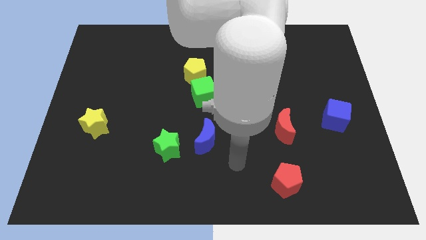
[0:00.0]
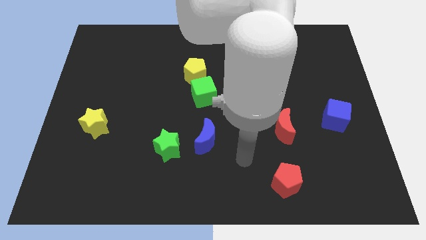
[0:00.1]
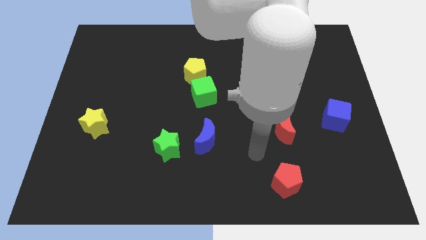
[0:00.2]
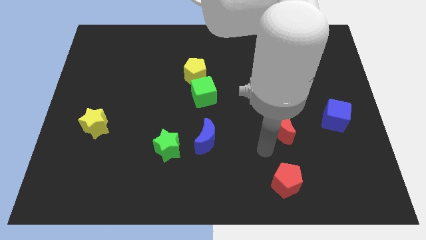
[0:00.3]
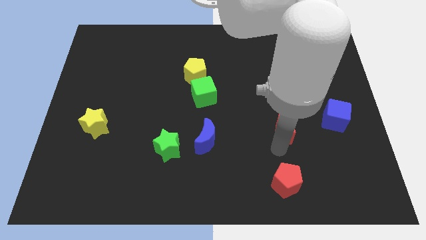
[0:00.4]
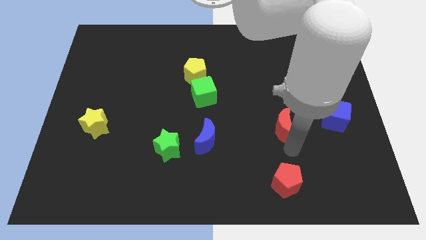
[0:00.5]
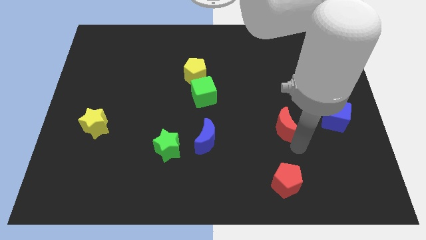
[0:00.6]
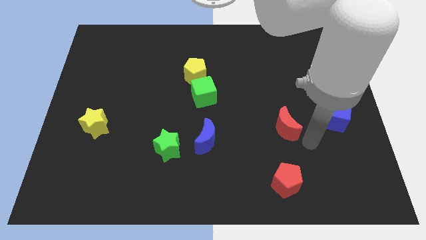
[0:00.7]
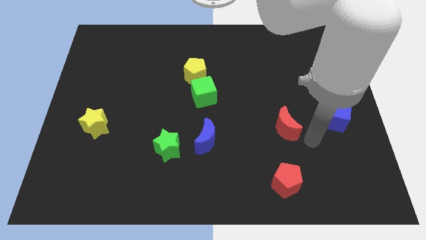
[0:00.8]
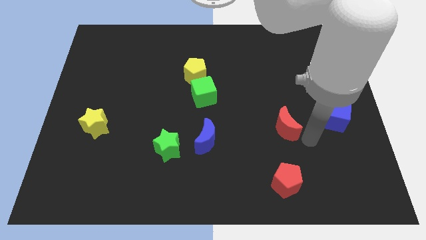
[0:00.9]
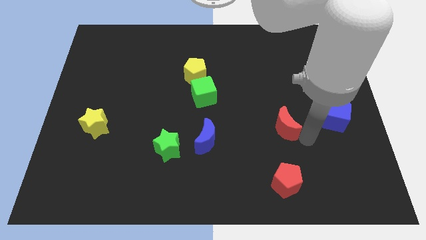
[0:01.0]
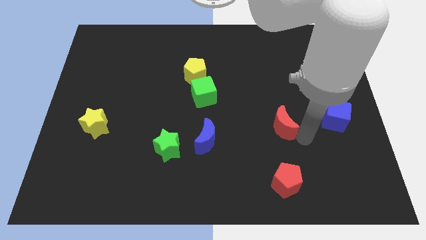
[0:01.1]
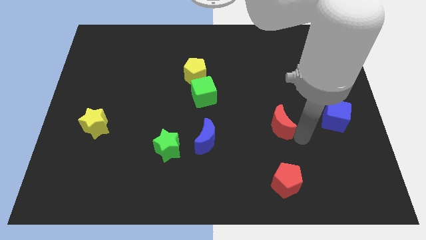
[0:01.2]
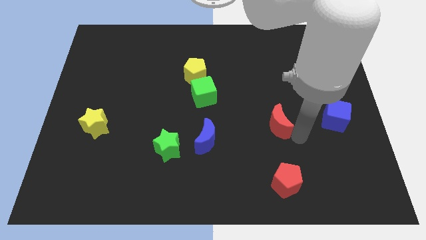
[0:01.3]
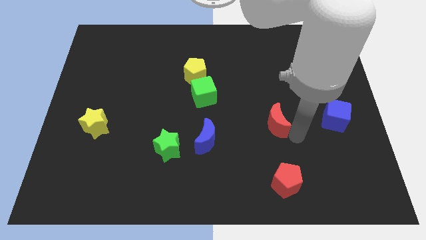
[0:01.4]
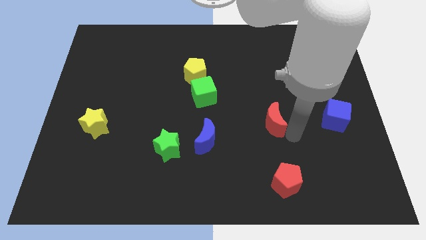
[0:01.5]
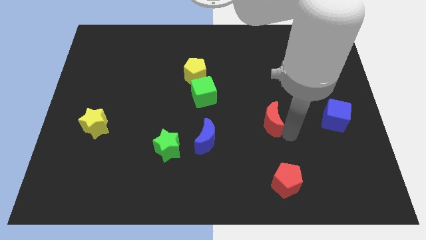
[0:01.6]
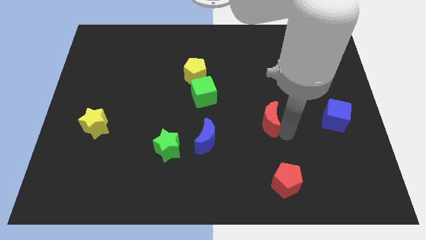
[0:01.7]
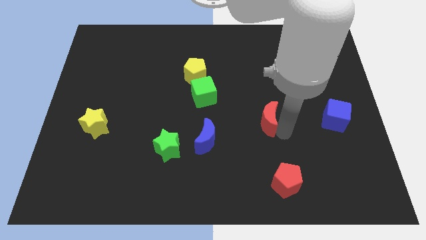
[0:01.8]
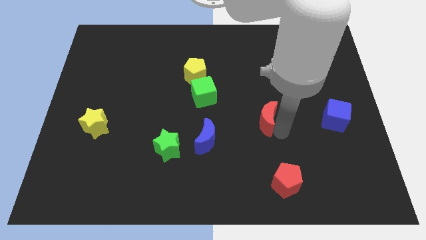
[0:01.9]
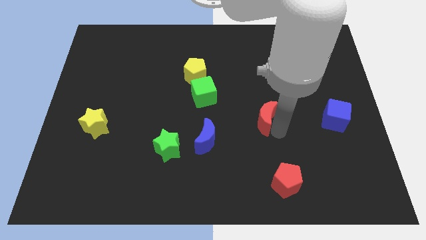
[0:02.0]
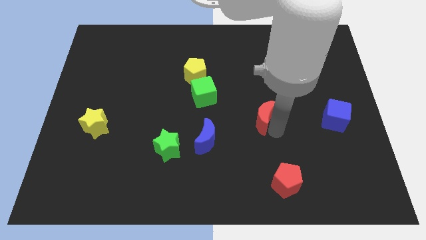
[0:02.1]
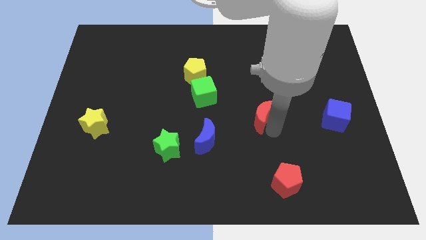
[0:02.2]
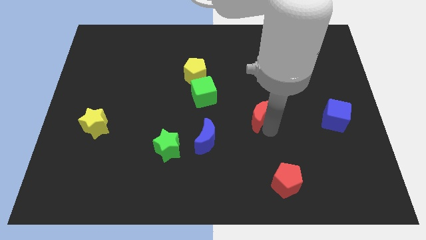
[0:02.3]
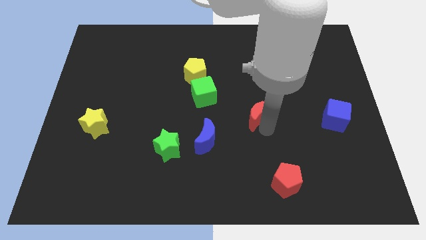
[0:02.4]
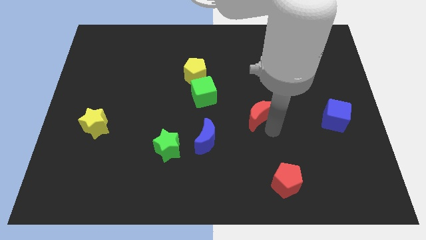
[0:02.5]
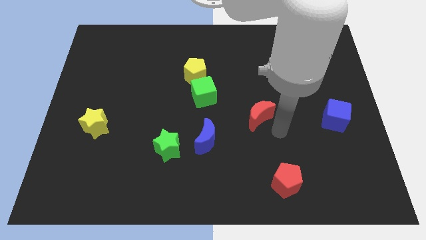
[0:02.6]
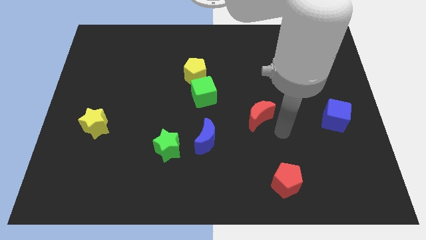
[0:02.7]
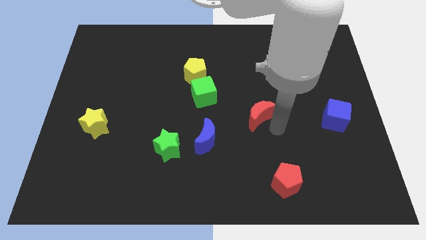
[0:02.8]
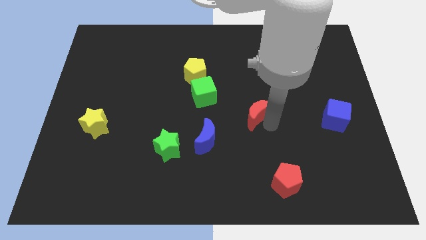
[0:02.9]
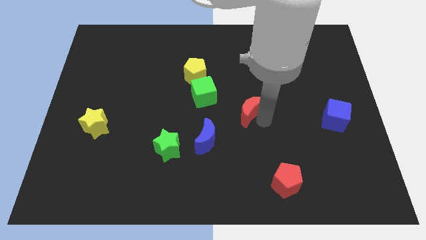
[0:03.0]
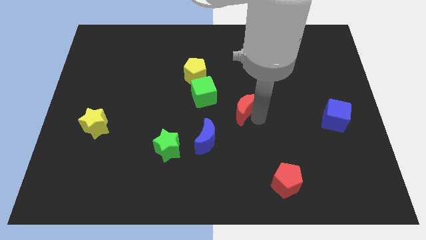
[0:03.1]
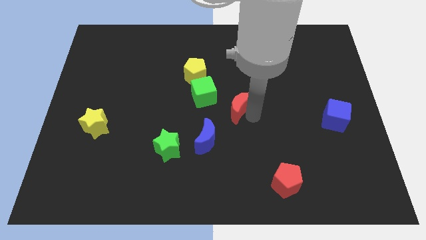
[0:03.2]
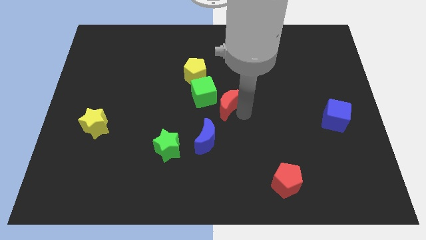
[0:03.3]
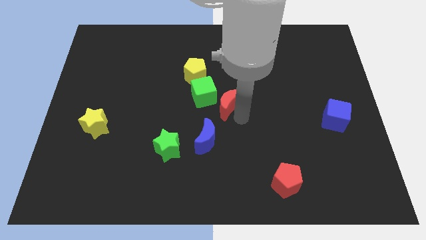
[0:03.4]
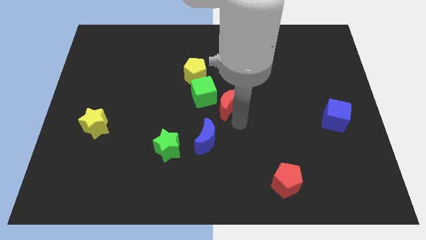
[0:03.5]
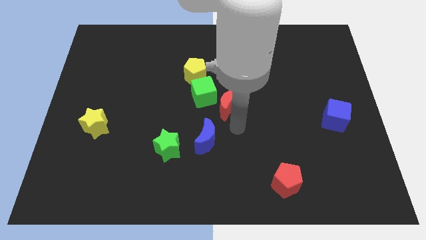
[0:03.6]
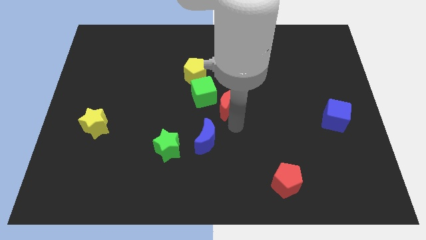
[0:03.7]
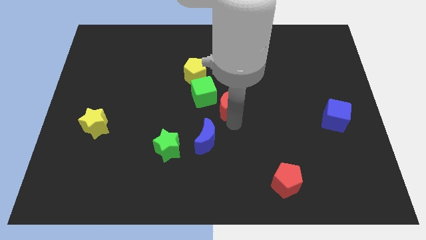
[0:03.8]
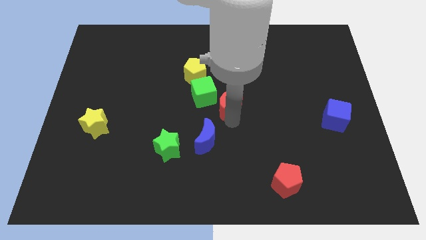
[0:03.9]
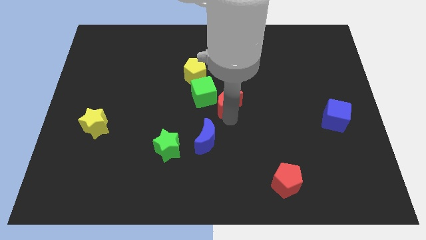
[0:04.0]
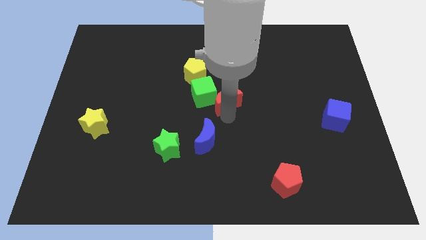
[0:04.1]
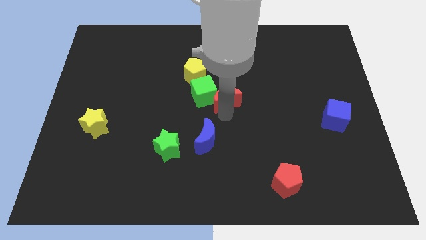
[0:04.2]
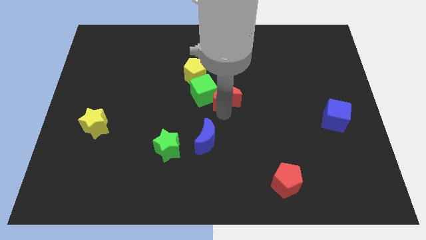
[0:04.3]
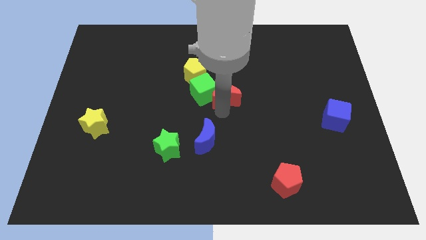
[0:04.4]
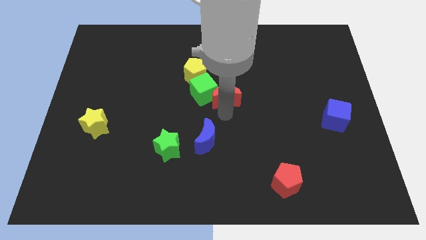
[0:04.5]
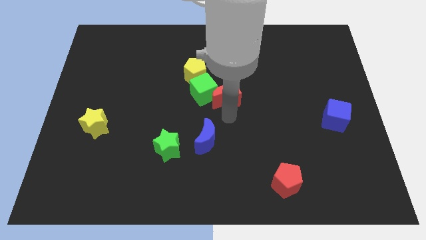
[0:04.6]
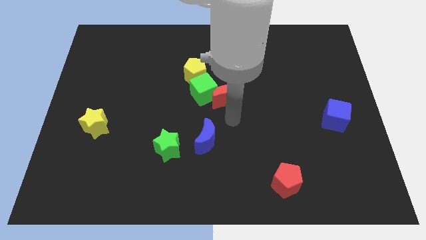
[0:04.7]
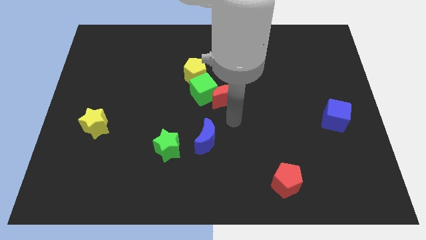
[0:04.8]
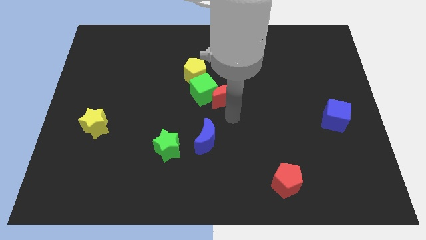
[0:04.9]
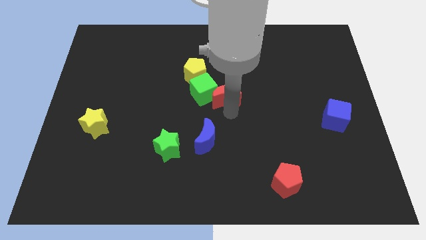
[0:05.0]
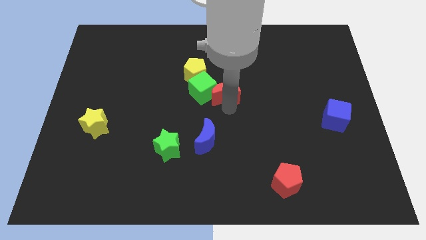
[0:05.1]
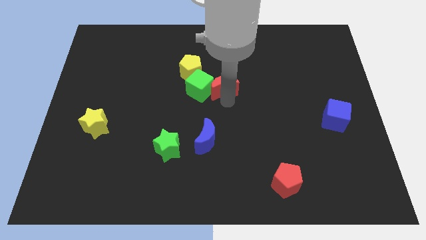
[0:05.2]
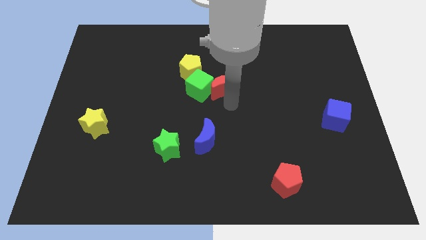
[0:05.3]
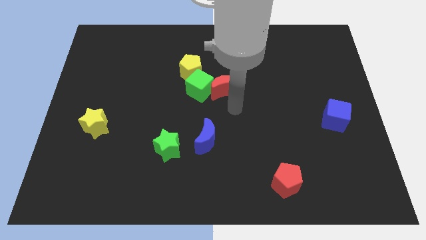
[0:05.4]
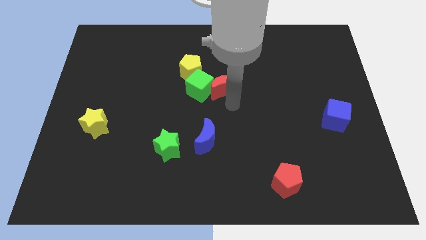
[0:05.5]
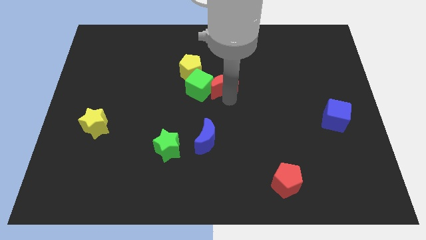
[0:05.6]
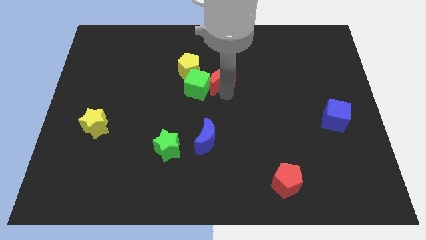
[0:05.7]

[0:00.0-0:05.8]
move the red moon up and then to the left

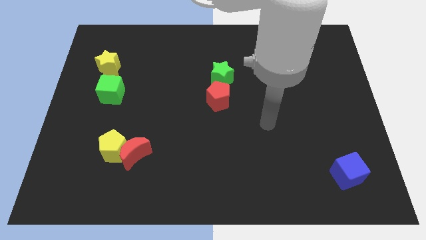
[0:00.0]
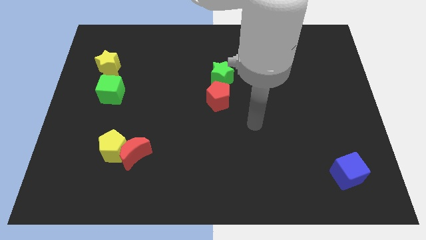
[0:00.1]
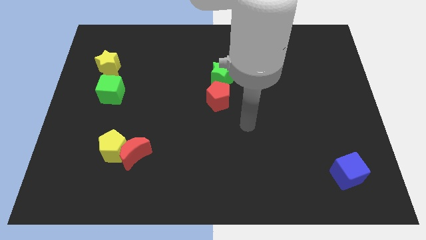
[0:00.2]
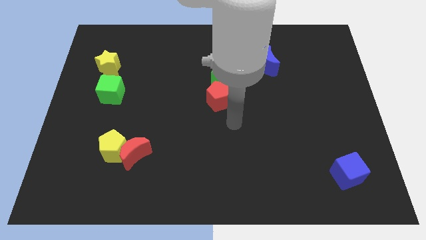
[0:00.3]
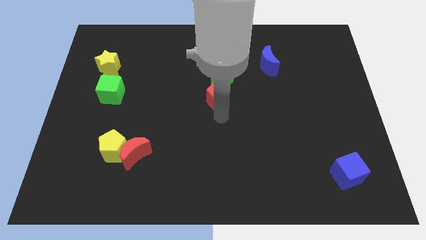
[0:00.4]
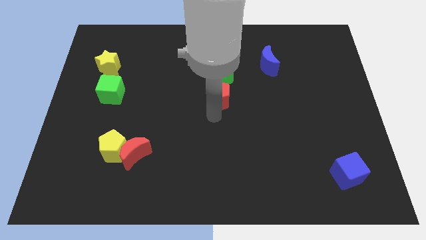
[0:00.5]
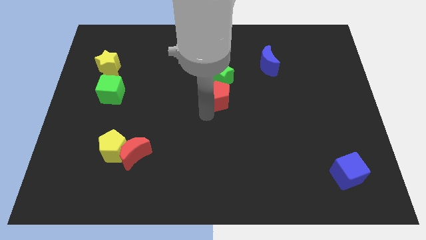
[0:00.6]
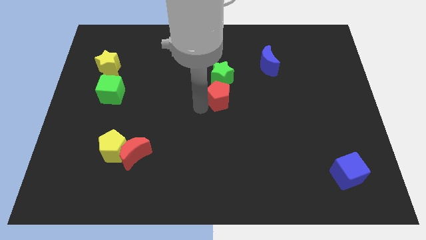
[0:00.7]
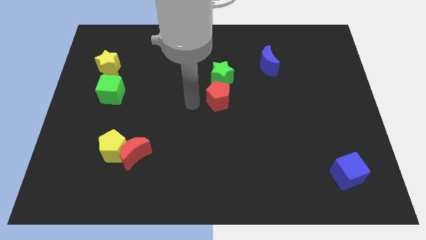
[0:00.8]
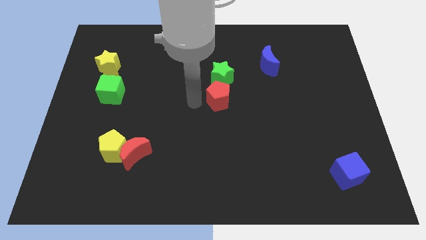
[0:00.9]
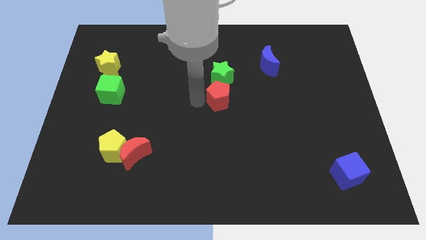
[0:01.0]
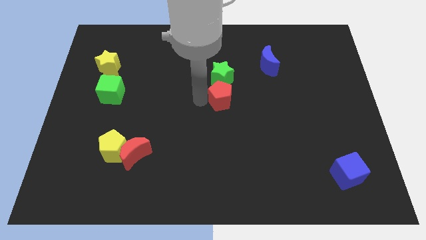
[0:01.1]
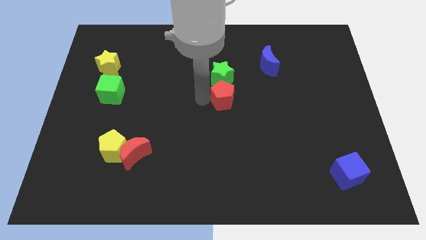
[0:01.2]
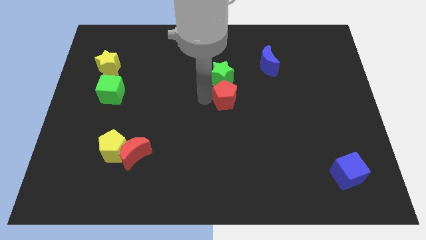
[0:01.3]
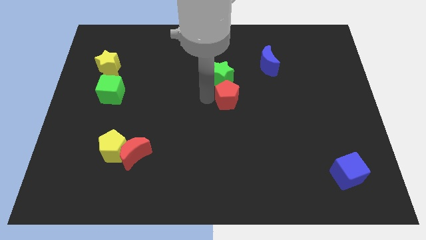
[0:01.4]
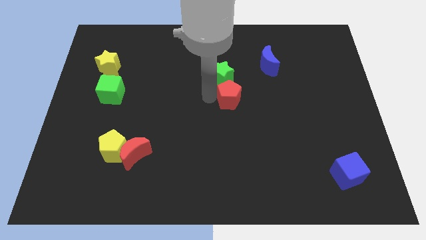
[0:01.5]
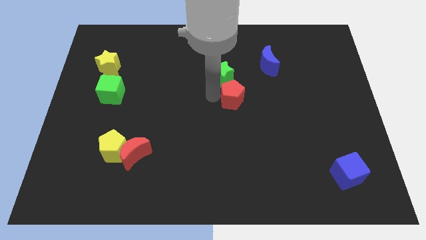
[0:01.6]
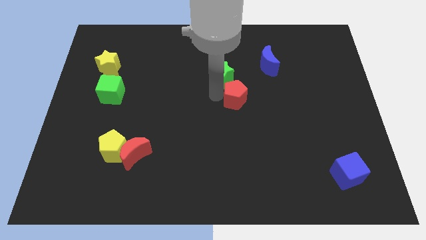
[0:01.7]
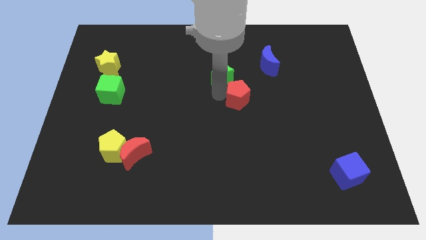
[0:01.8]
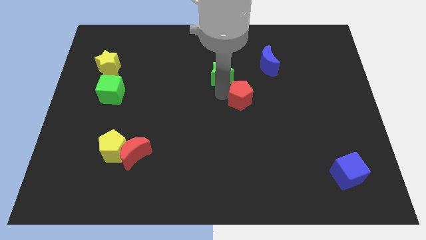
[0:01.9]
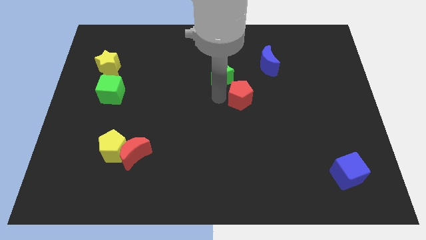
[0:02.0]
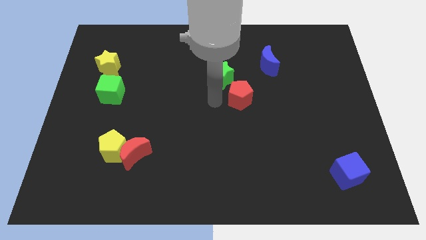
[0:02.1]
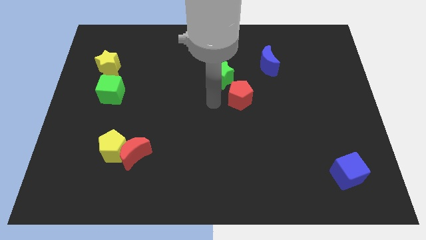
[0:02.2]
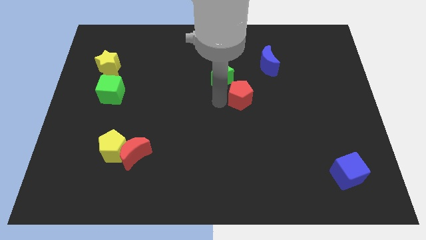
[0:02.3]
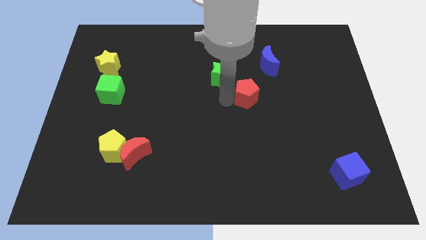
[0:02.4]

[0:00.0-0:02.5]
slightly move the red pentagon to the right

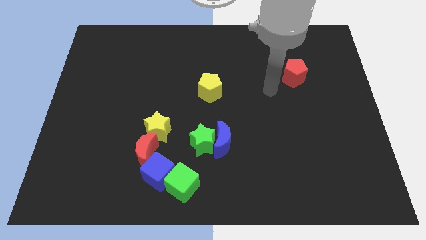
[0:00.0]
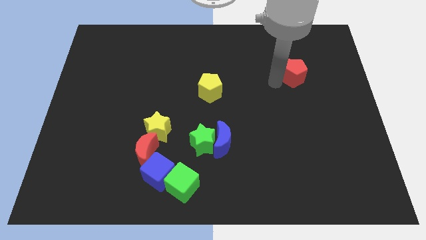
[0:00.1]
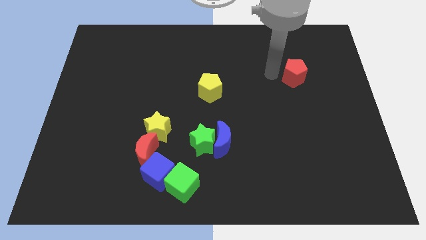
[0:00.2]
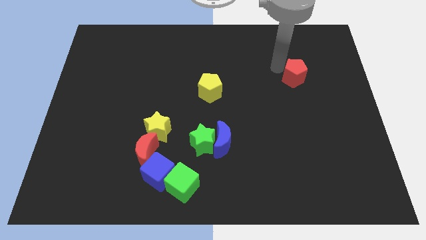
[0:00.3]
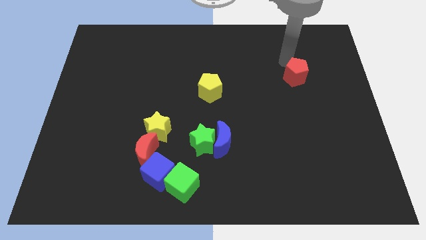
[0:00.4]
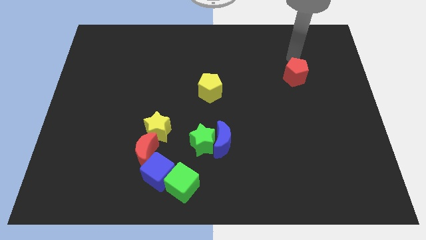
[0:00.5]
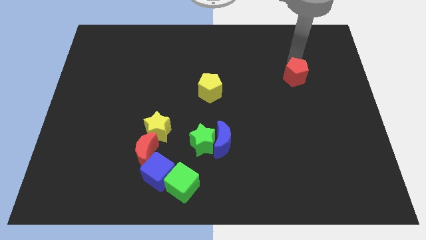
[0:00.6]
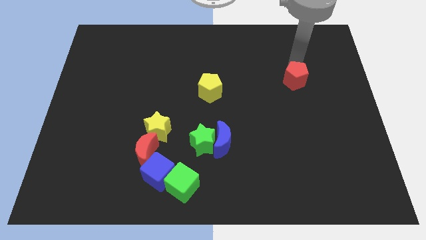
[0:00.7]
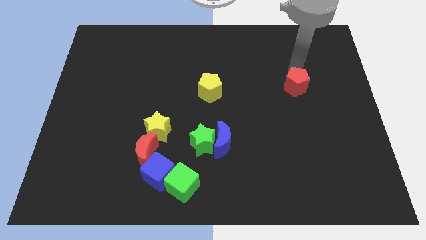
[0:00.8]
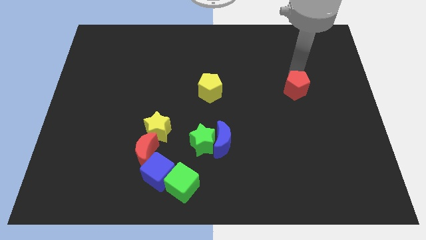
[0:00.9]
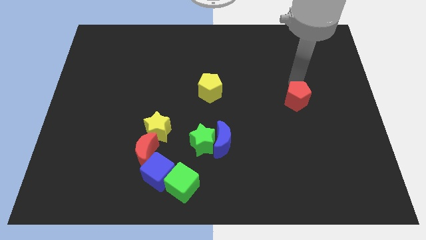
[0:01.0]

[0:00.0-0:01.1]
slightly slide the red pentagon down
